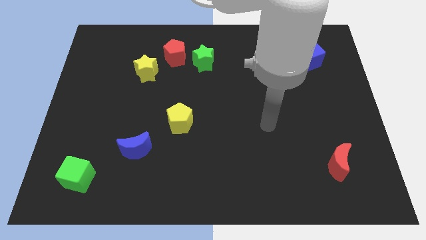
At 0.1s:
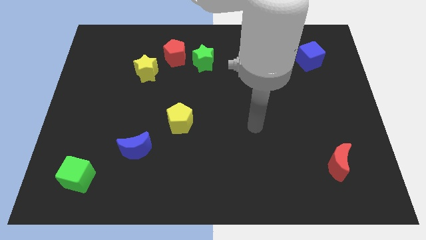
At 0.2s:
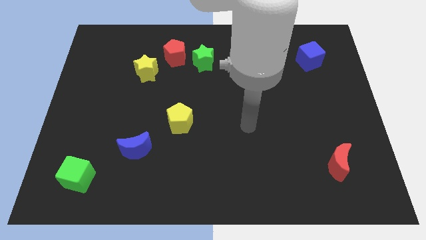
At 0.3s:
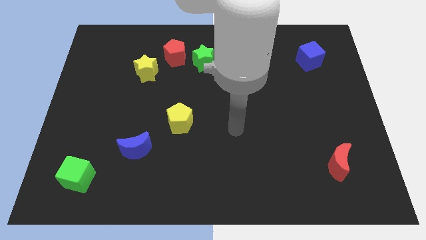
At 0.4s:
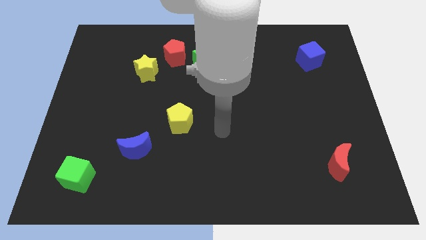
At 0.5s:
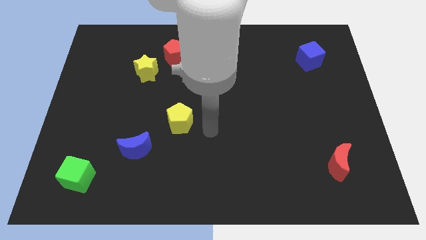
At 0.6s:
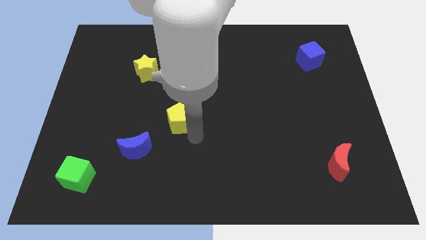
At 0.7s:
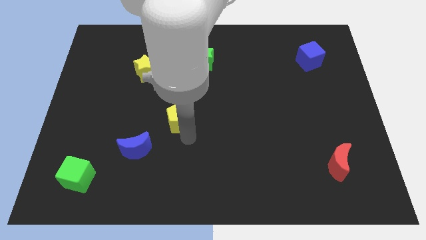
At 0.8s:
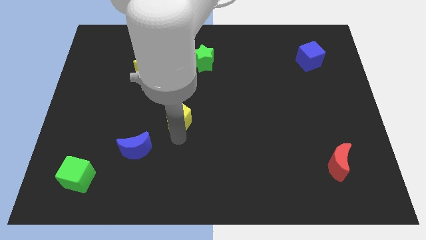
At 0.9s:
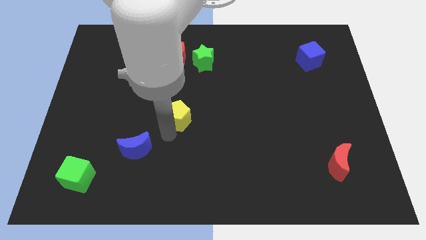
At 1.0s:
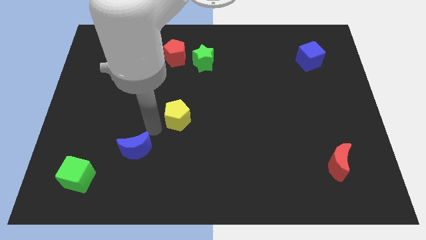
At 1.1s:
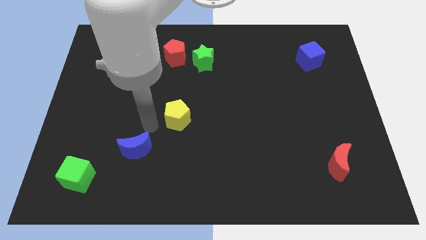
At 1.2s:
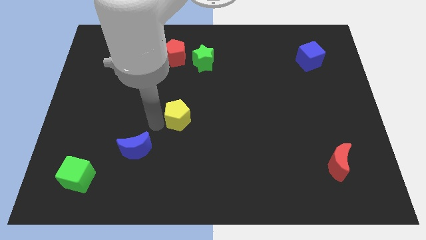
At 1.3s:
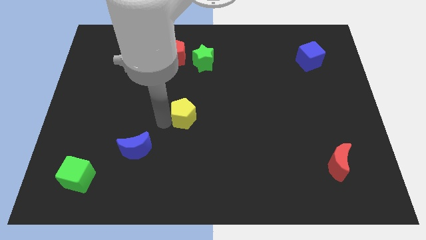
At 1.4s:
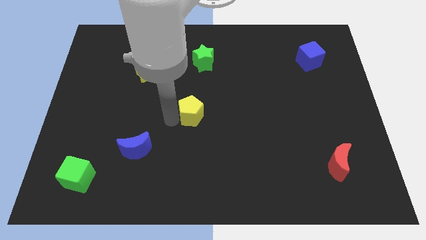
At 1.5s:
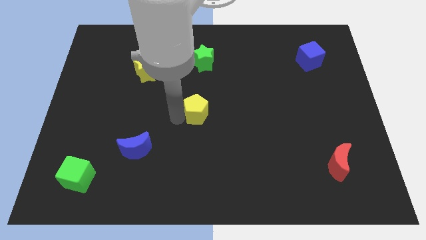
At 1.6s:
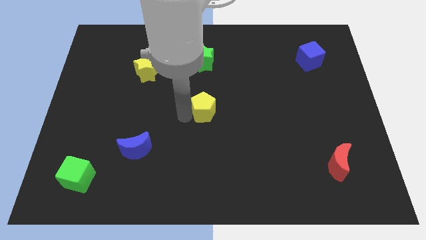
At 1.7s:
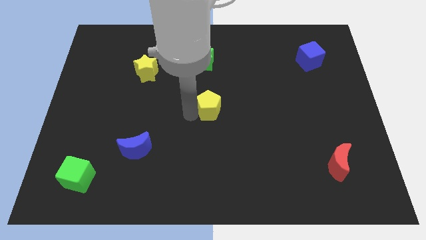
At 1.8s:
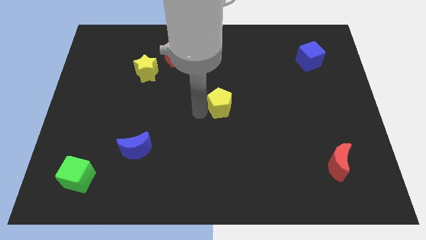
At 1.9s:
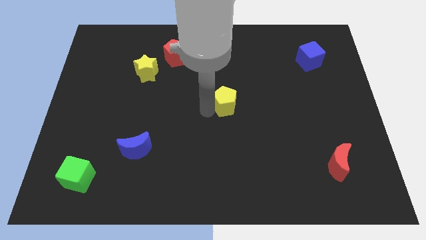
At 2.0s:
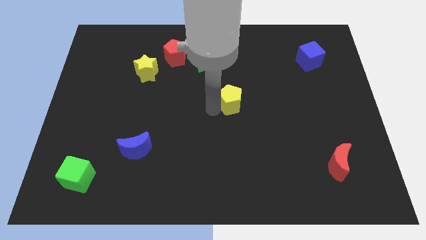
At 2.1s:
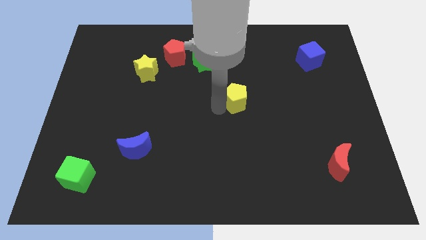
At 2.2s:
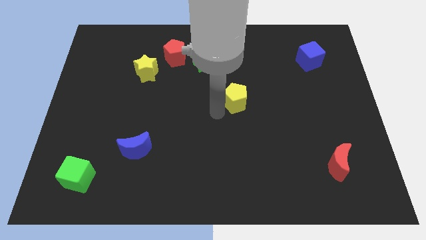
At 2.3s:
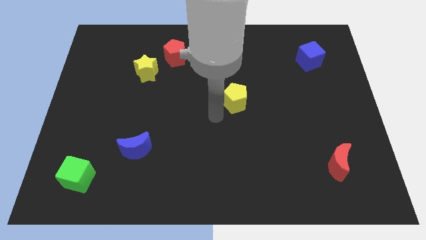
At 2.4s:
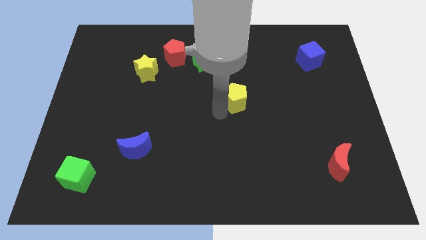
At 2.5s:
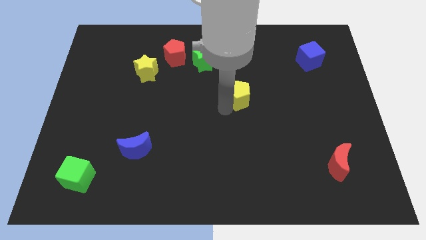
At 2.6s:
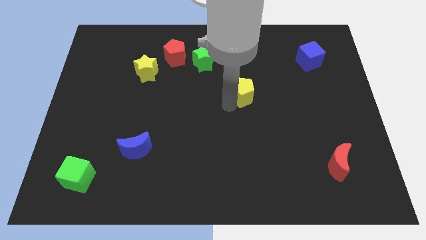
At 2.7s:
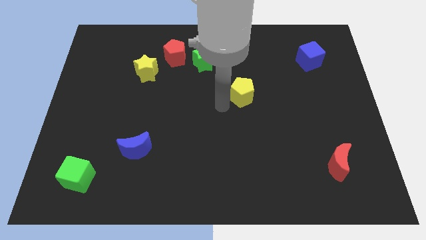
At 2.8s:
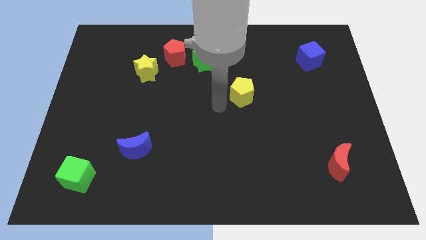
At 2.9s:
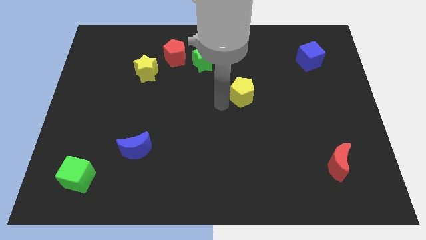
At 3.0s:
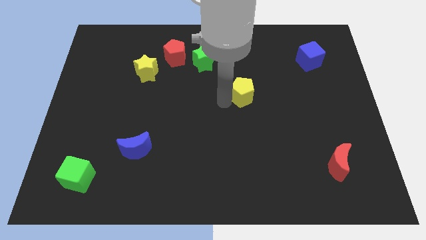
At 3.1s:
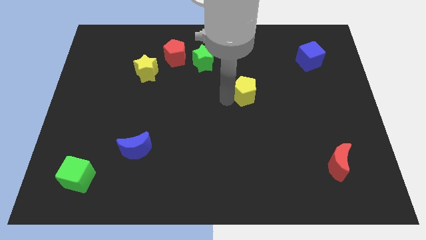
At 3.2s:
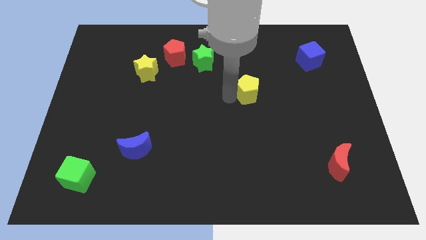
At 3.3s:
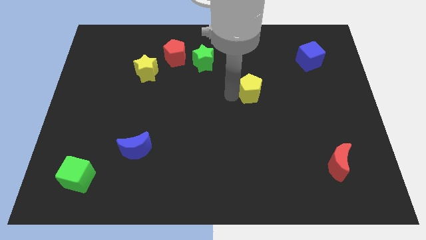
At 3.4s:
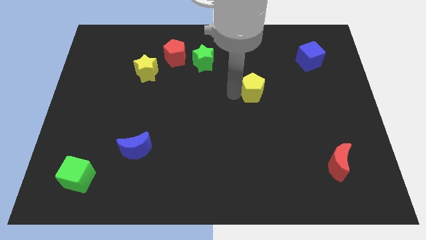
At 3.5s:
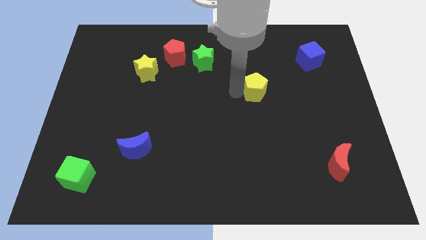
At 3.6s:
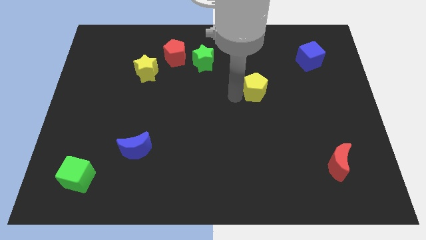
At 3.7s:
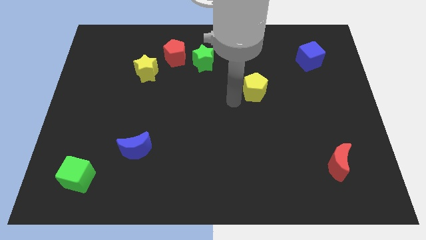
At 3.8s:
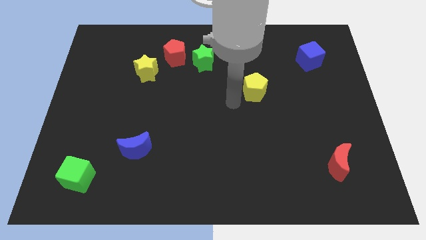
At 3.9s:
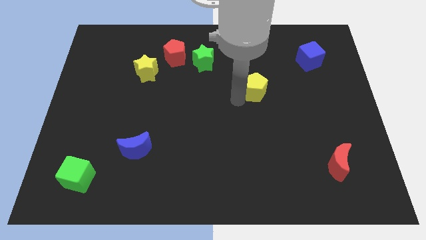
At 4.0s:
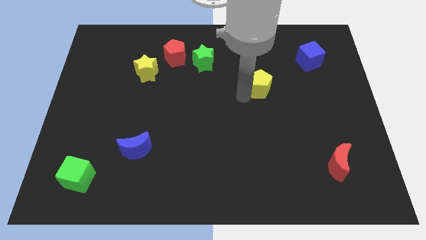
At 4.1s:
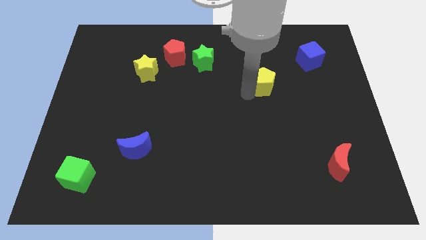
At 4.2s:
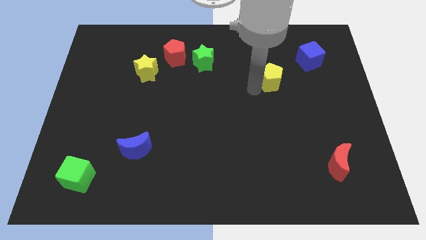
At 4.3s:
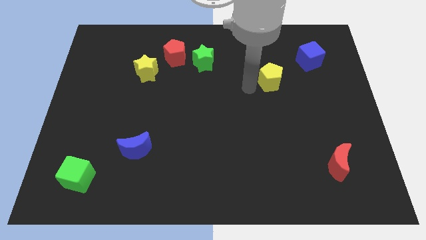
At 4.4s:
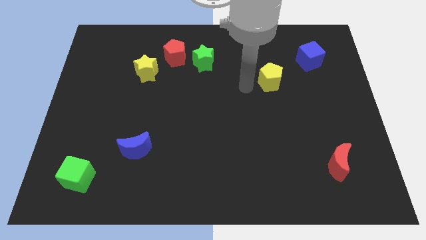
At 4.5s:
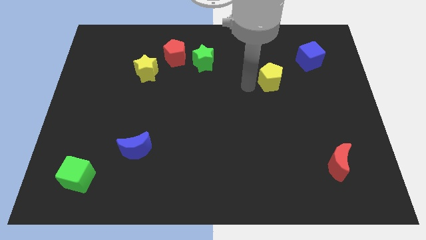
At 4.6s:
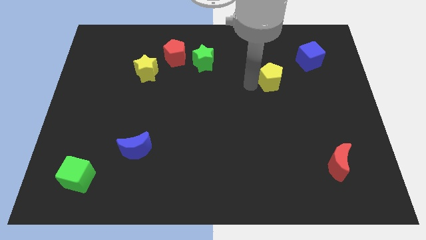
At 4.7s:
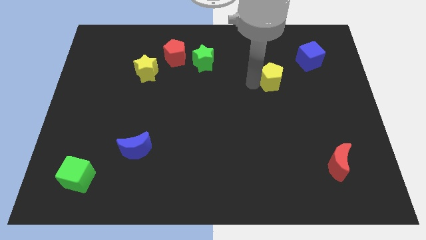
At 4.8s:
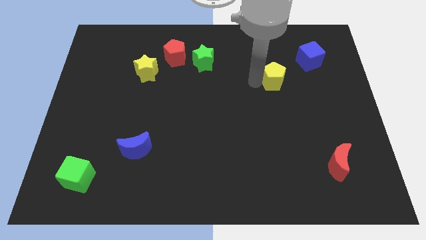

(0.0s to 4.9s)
push the yellow pentagon to the bottom left side of the blue cube

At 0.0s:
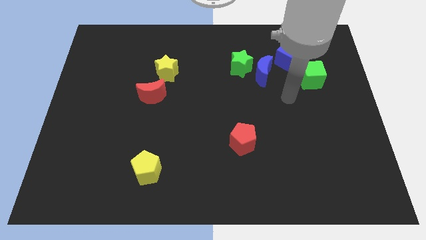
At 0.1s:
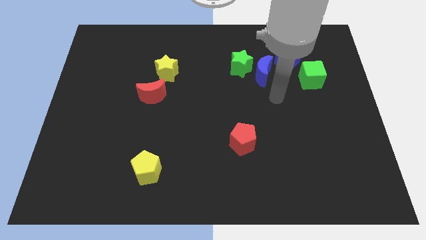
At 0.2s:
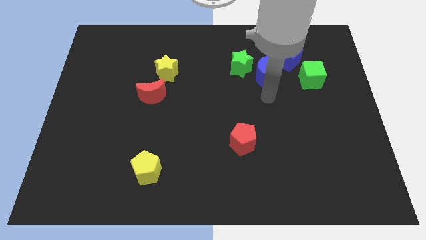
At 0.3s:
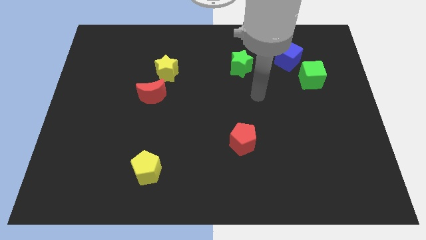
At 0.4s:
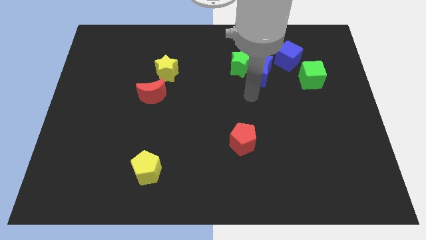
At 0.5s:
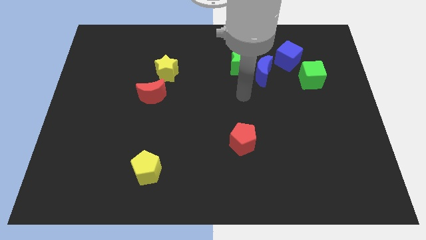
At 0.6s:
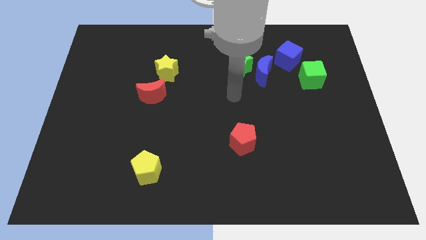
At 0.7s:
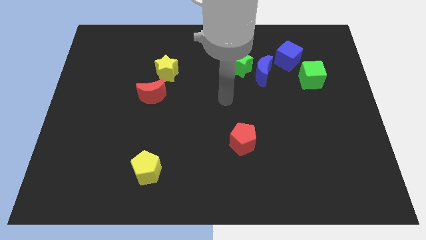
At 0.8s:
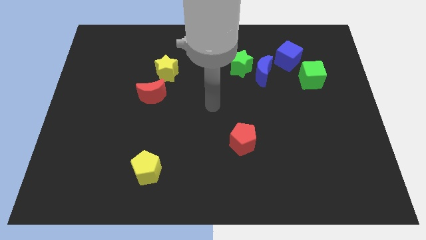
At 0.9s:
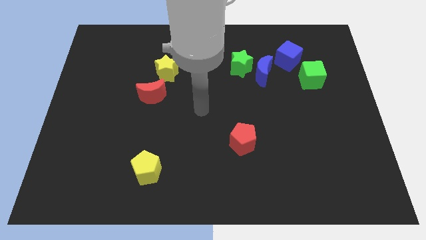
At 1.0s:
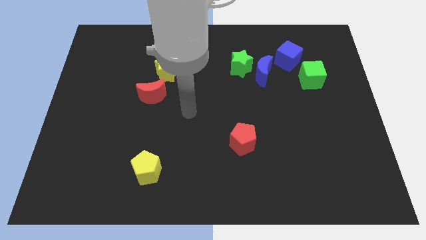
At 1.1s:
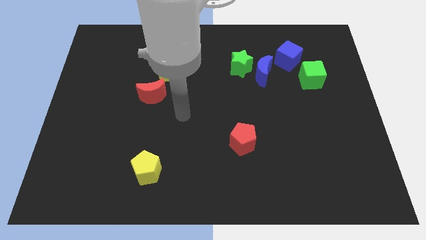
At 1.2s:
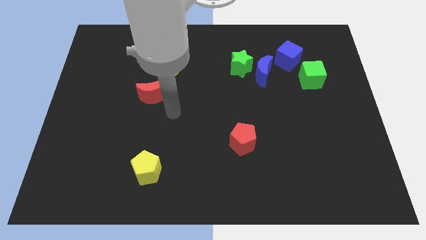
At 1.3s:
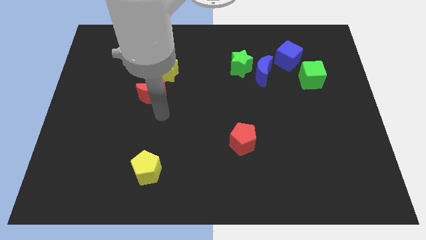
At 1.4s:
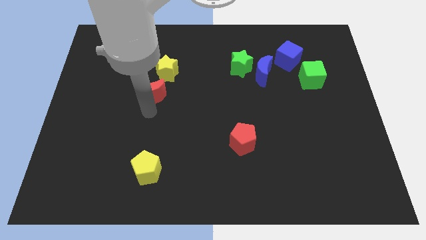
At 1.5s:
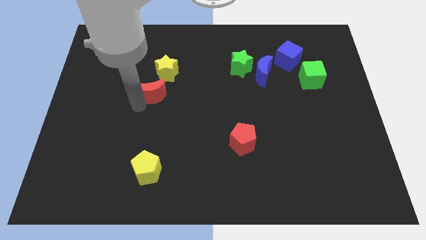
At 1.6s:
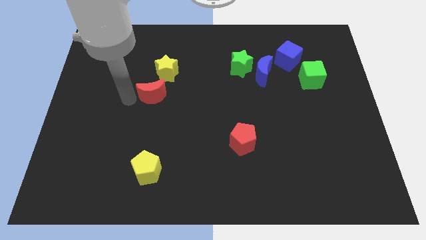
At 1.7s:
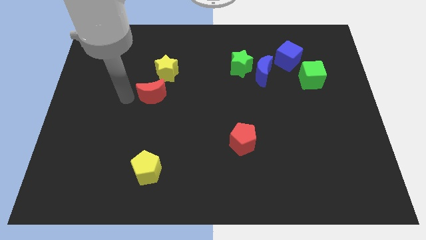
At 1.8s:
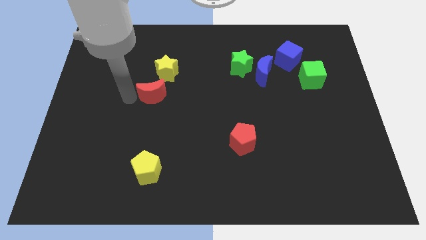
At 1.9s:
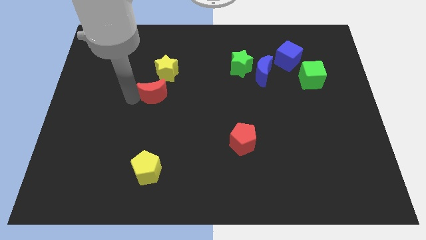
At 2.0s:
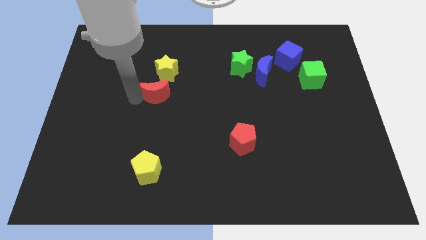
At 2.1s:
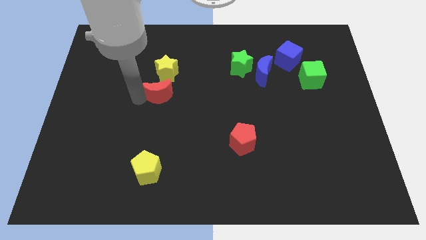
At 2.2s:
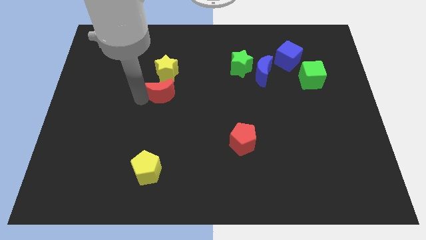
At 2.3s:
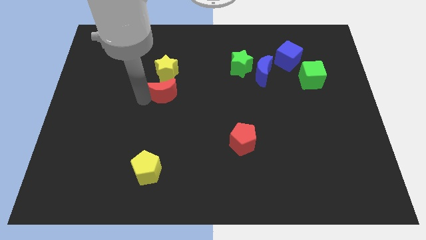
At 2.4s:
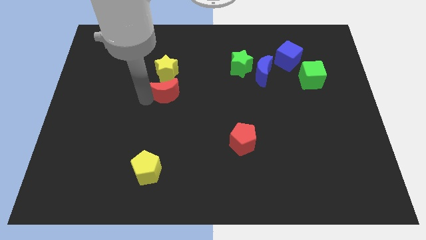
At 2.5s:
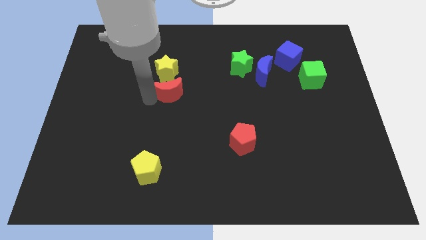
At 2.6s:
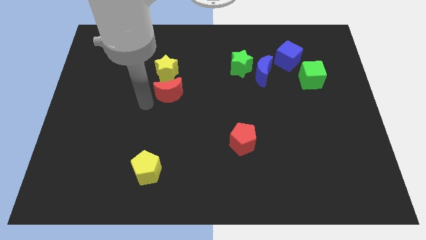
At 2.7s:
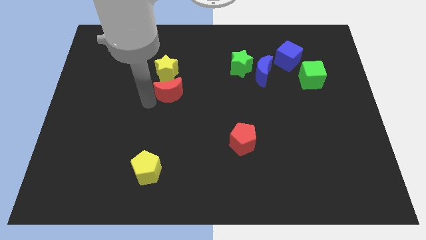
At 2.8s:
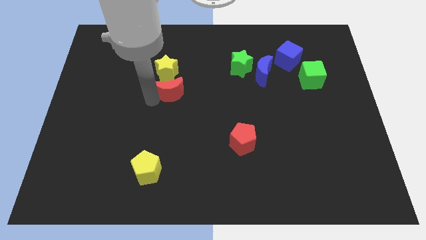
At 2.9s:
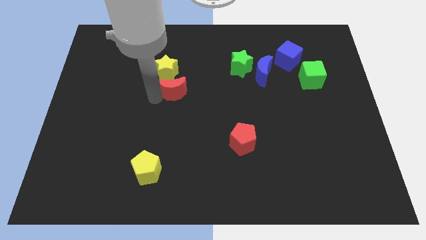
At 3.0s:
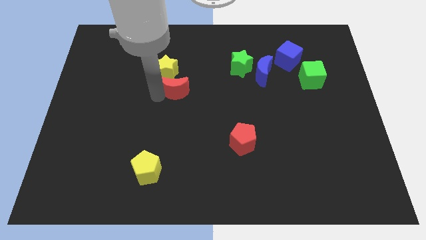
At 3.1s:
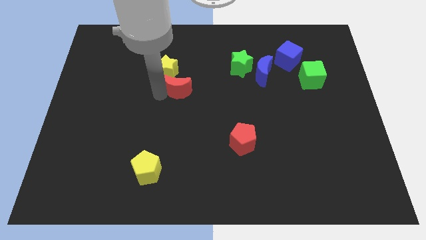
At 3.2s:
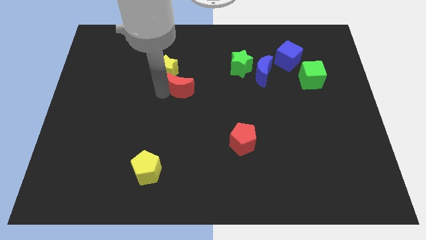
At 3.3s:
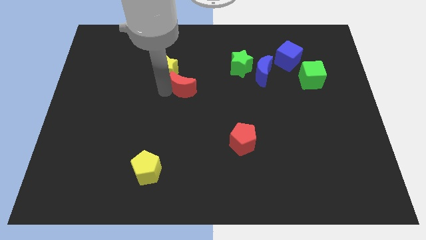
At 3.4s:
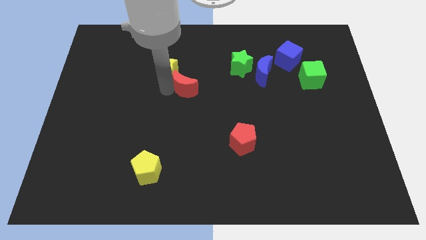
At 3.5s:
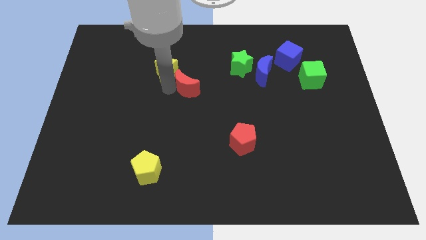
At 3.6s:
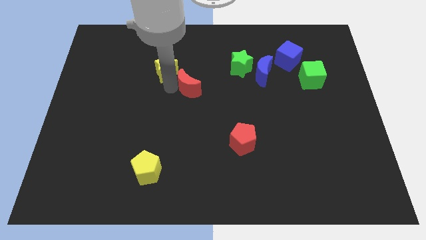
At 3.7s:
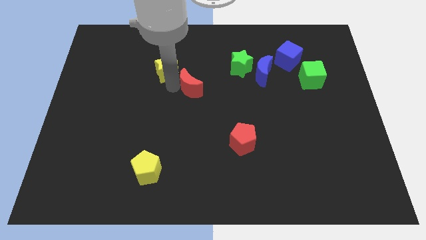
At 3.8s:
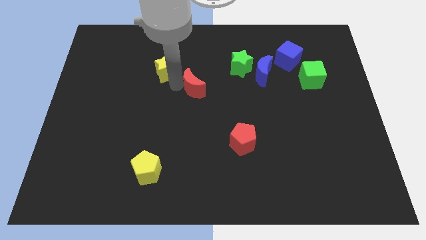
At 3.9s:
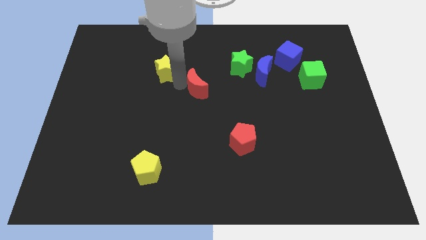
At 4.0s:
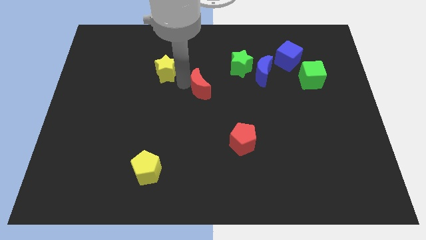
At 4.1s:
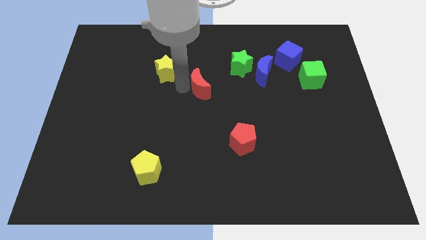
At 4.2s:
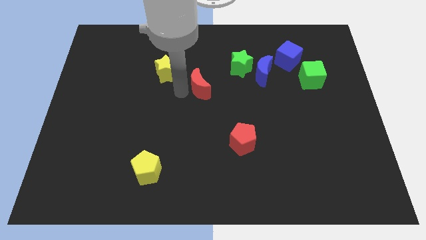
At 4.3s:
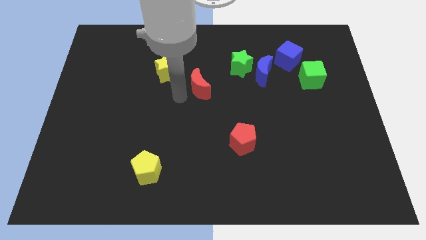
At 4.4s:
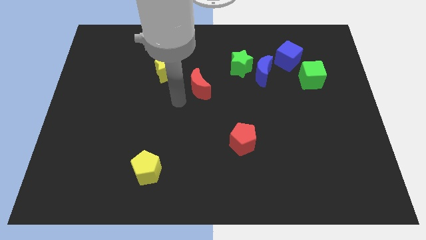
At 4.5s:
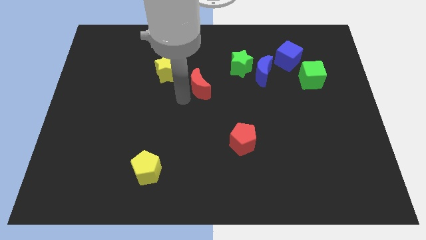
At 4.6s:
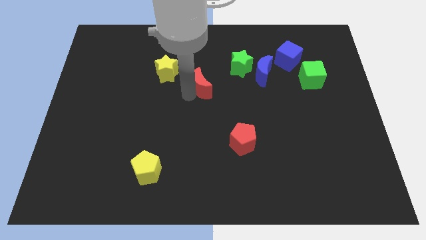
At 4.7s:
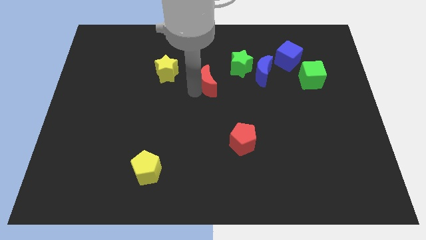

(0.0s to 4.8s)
push the red moon left of the blue moon
